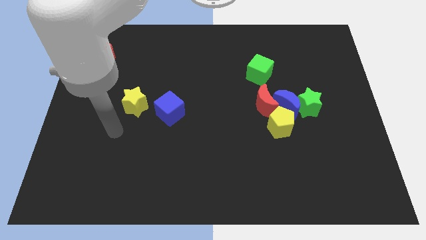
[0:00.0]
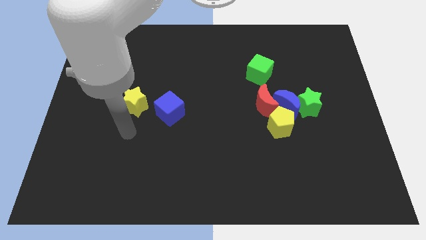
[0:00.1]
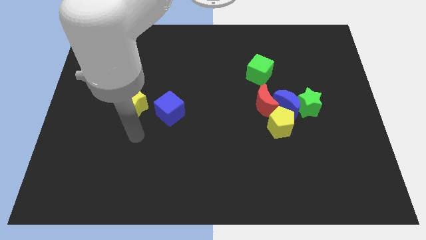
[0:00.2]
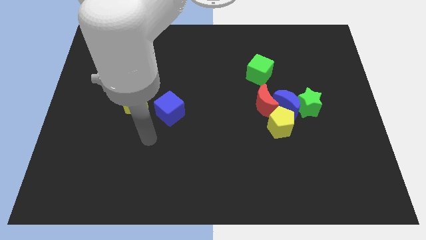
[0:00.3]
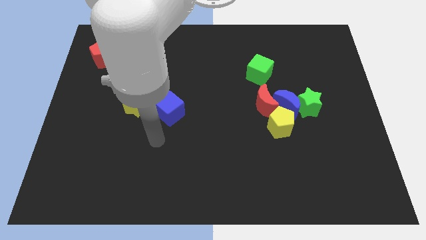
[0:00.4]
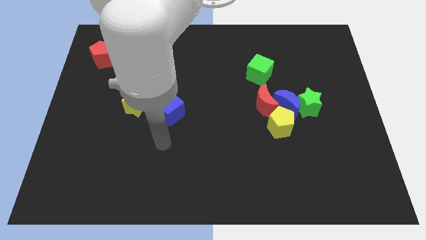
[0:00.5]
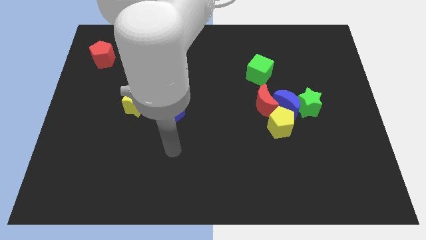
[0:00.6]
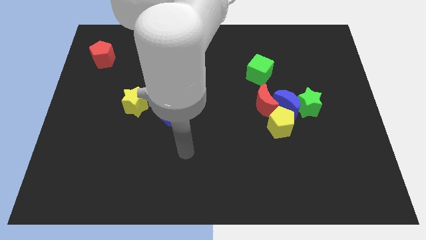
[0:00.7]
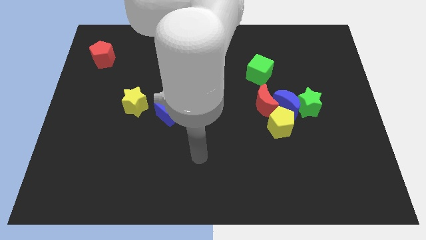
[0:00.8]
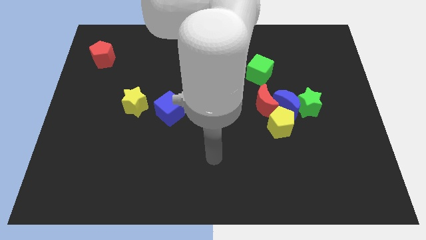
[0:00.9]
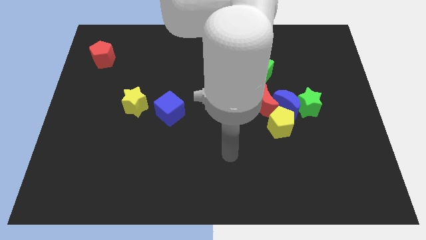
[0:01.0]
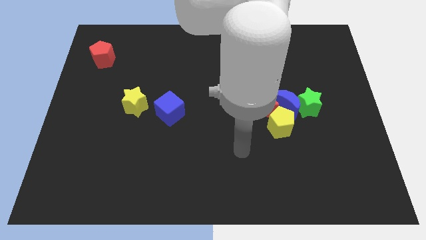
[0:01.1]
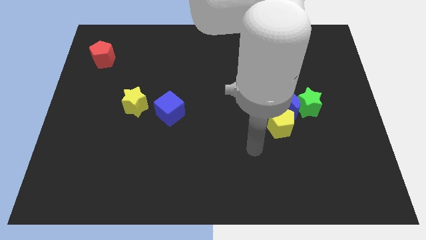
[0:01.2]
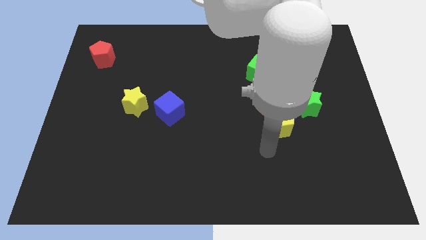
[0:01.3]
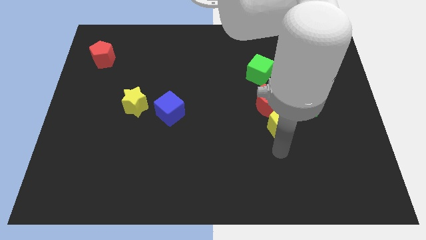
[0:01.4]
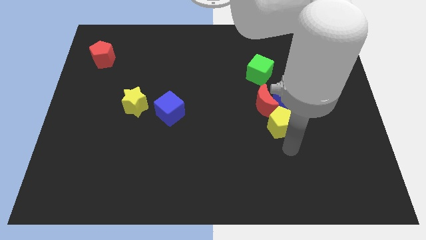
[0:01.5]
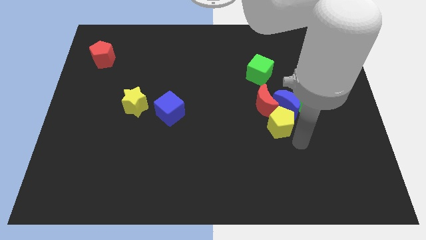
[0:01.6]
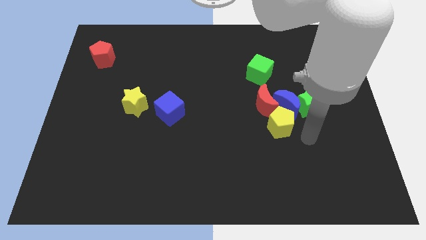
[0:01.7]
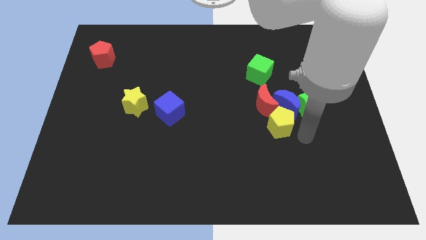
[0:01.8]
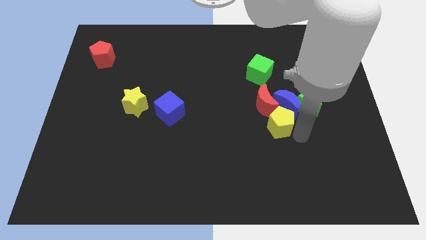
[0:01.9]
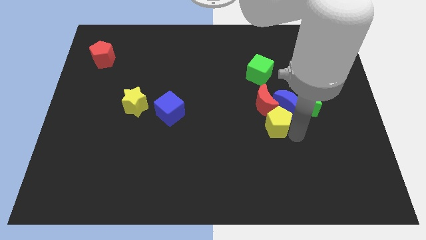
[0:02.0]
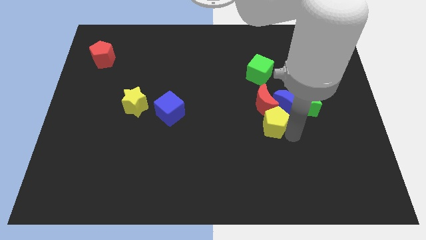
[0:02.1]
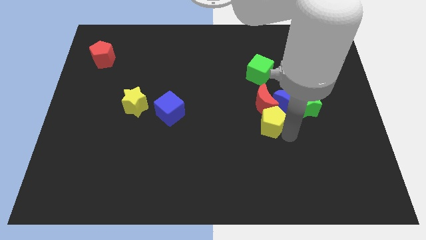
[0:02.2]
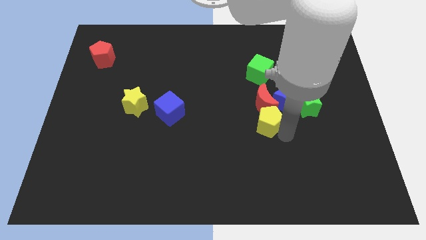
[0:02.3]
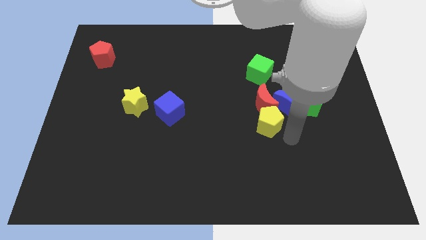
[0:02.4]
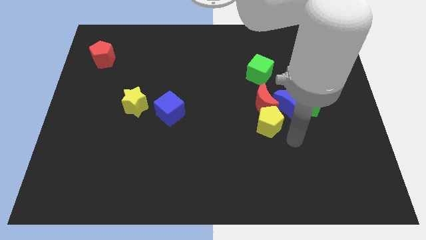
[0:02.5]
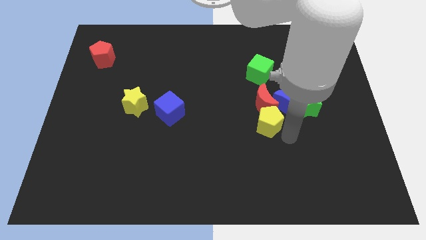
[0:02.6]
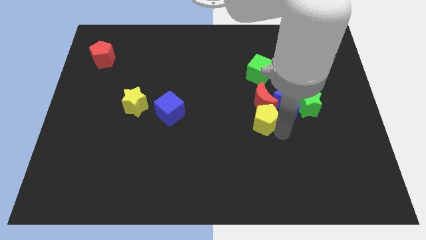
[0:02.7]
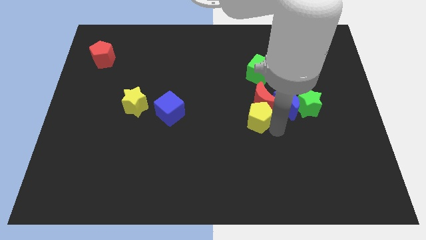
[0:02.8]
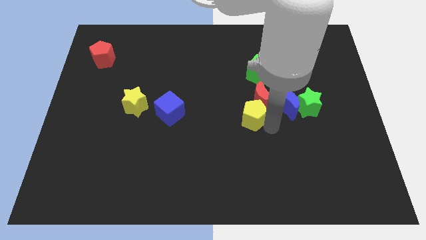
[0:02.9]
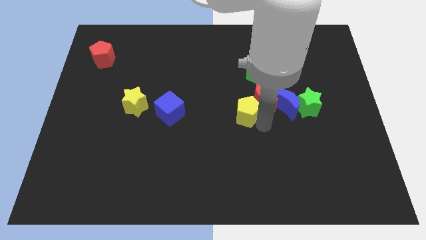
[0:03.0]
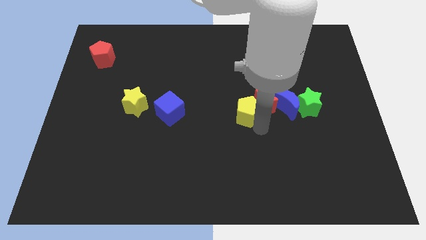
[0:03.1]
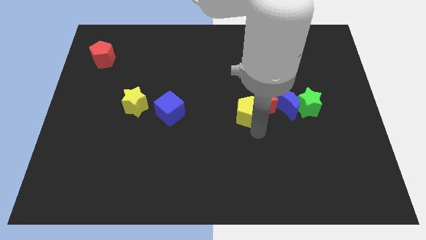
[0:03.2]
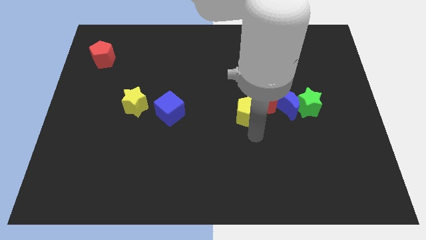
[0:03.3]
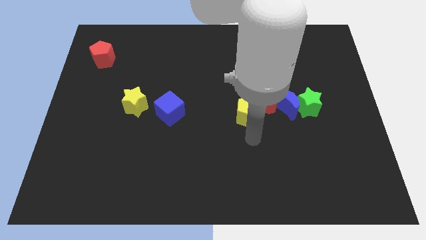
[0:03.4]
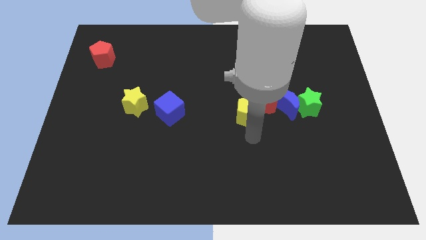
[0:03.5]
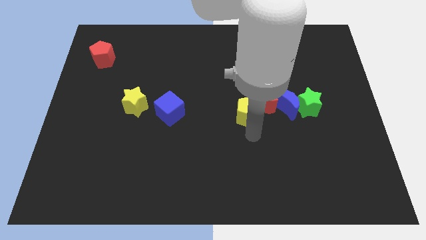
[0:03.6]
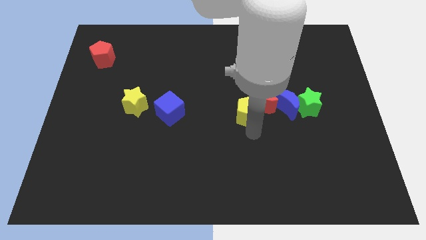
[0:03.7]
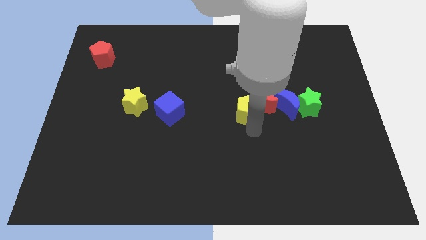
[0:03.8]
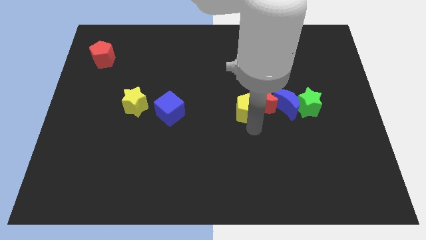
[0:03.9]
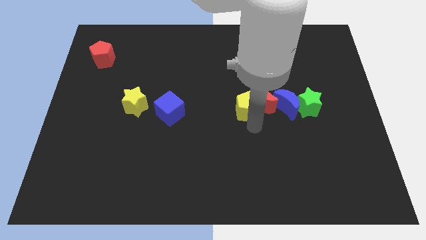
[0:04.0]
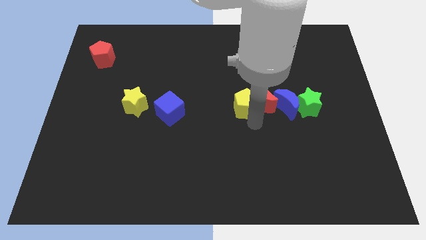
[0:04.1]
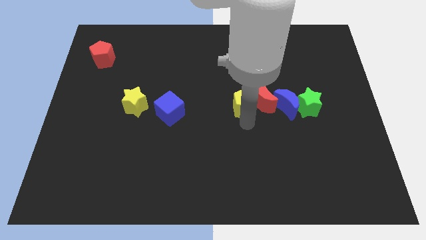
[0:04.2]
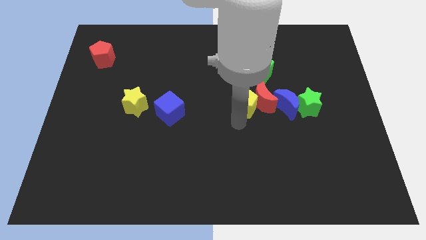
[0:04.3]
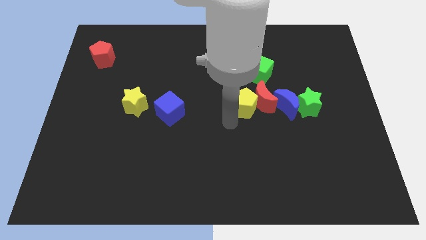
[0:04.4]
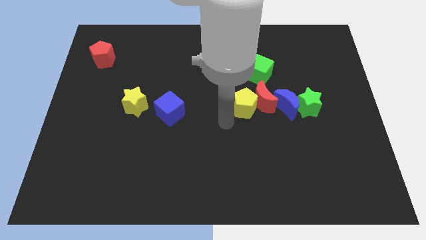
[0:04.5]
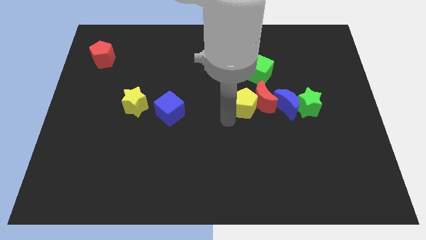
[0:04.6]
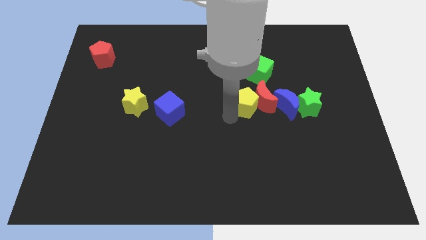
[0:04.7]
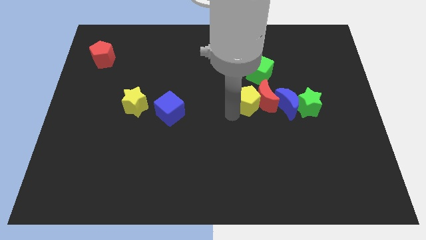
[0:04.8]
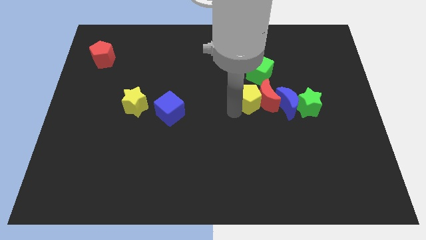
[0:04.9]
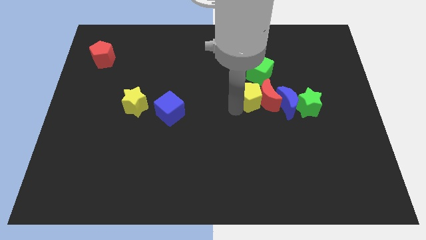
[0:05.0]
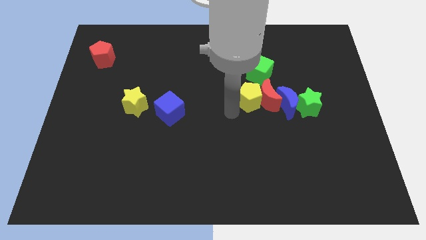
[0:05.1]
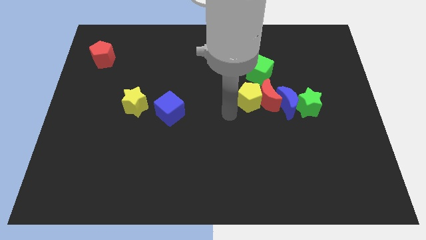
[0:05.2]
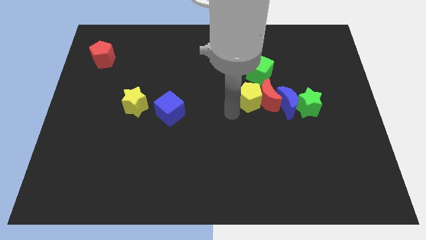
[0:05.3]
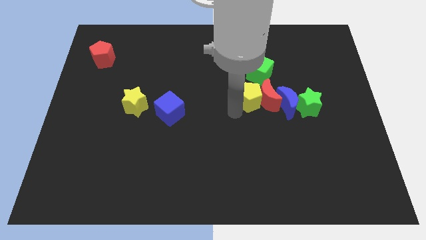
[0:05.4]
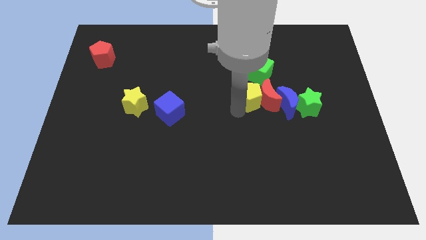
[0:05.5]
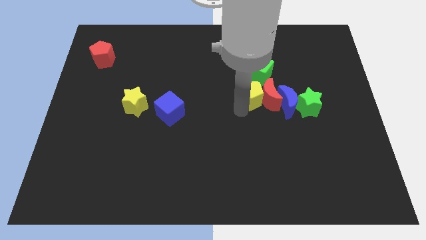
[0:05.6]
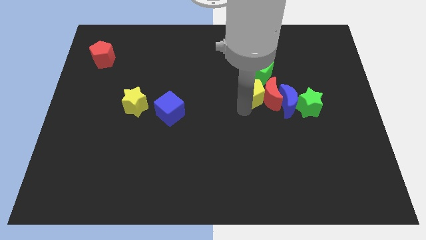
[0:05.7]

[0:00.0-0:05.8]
move the yellow pentagon up a little bit

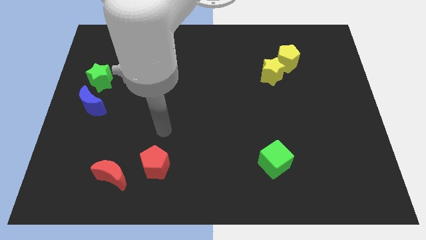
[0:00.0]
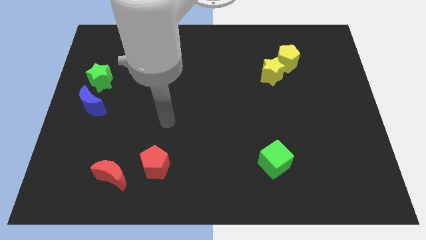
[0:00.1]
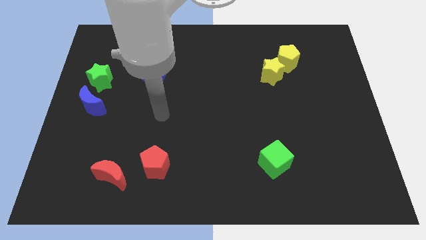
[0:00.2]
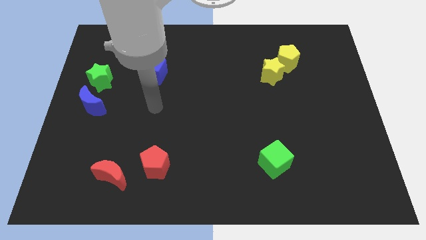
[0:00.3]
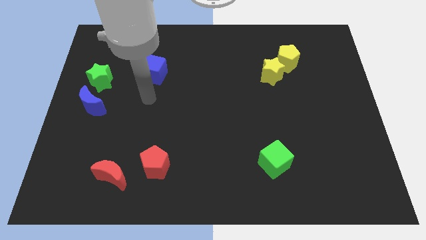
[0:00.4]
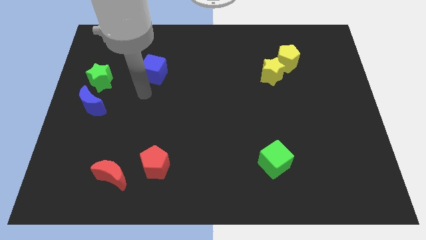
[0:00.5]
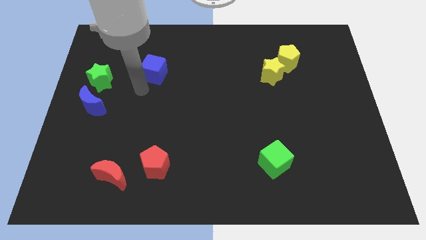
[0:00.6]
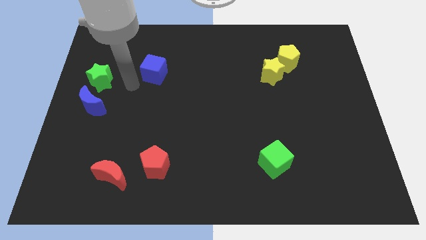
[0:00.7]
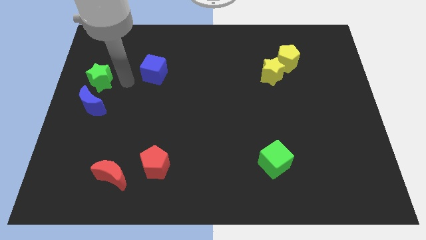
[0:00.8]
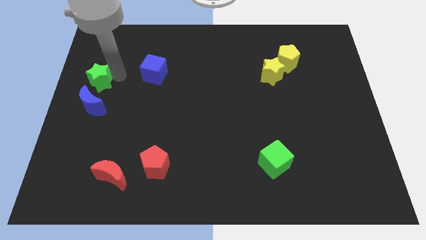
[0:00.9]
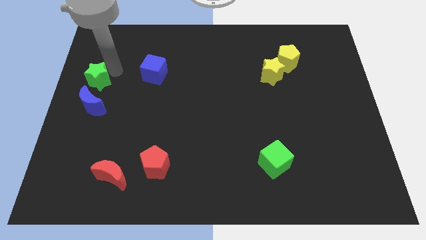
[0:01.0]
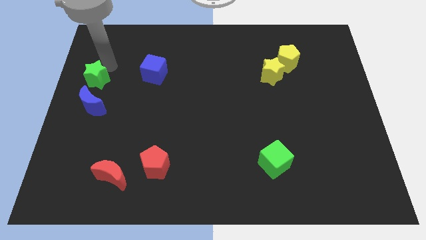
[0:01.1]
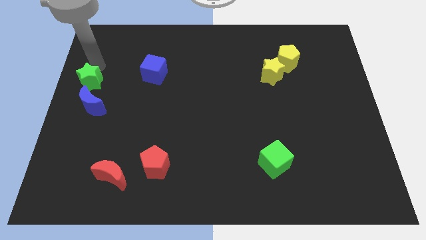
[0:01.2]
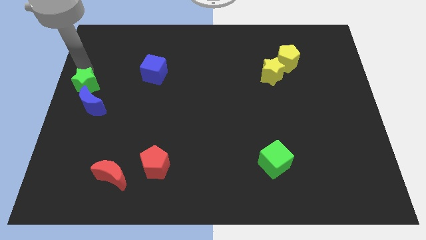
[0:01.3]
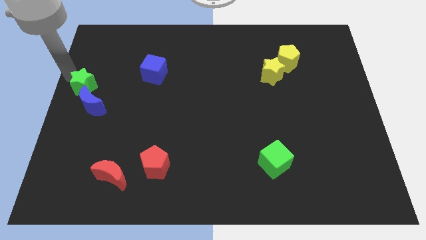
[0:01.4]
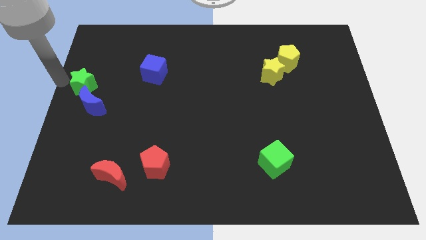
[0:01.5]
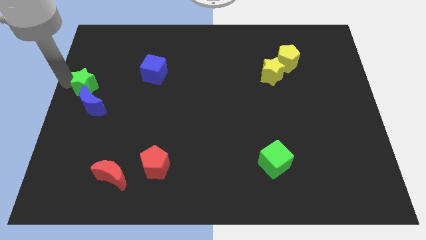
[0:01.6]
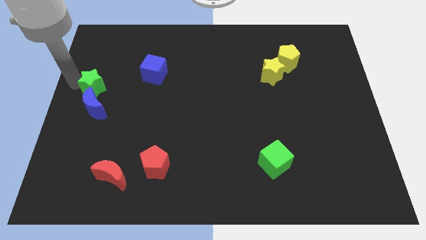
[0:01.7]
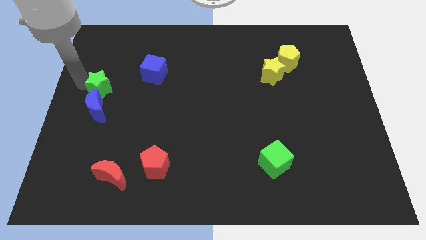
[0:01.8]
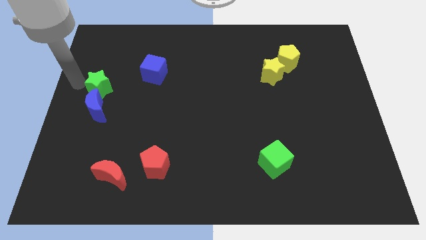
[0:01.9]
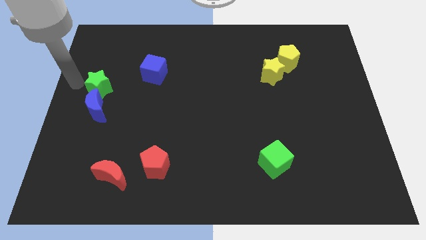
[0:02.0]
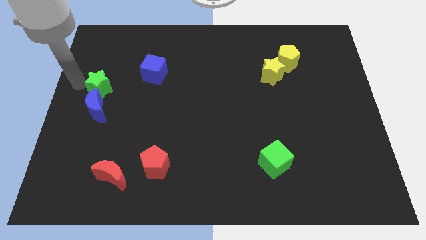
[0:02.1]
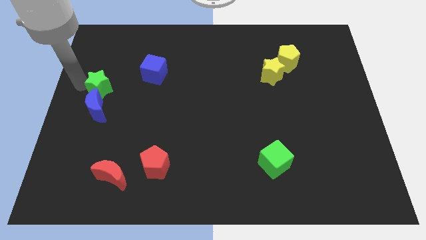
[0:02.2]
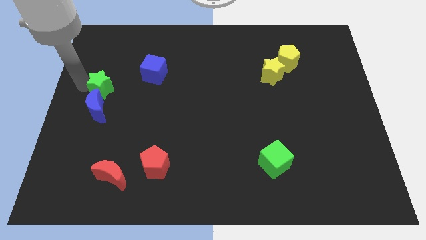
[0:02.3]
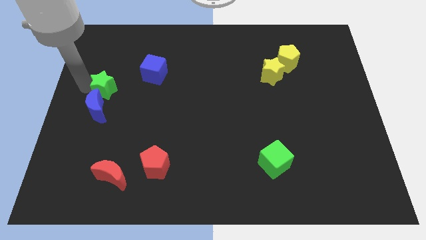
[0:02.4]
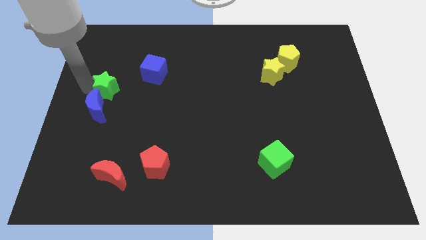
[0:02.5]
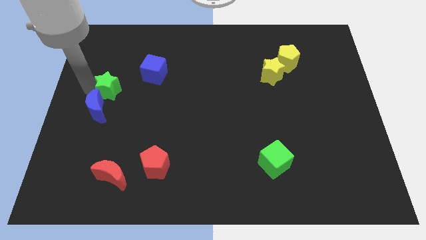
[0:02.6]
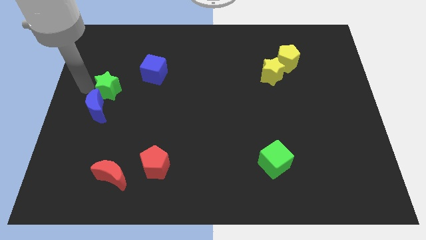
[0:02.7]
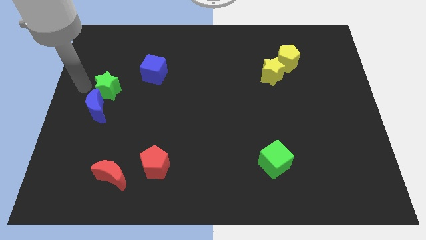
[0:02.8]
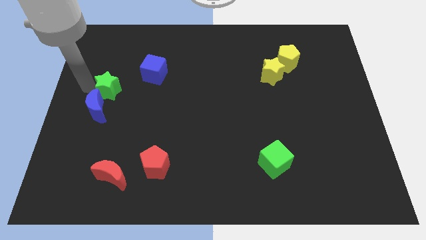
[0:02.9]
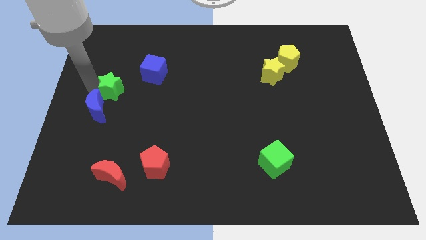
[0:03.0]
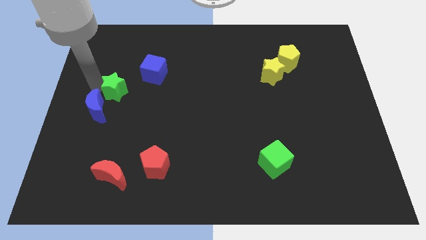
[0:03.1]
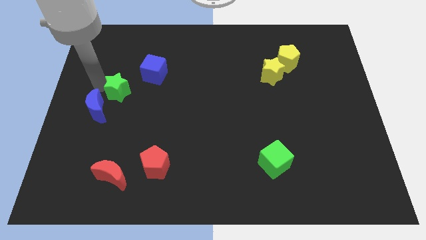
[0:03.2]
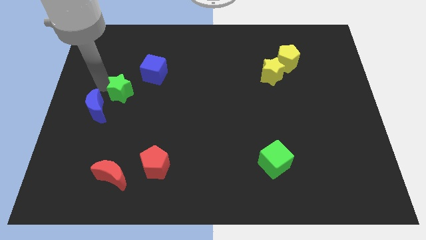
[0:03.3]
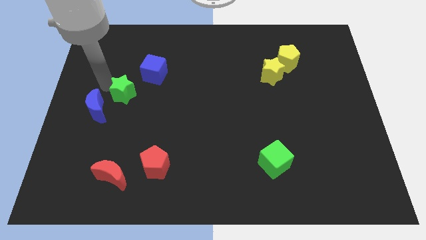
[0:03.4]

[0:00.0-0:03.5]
slightly push the green star downwards and then to the right
